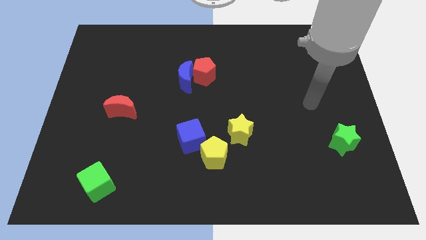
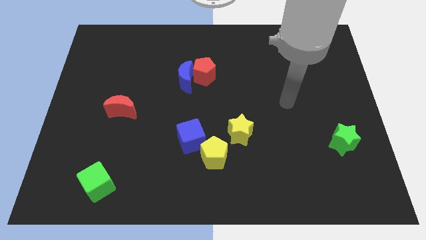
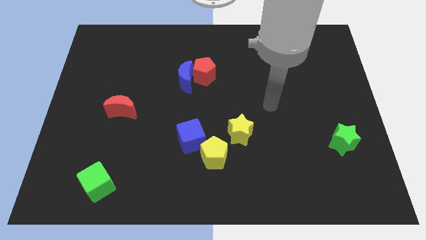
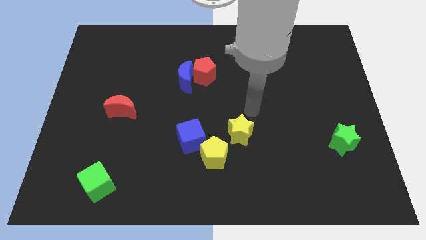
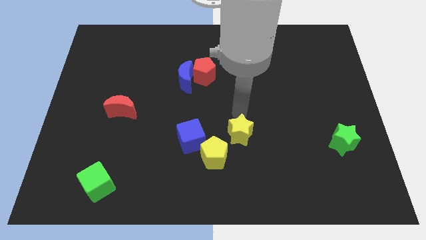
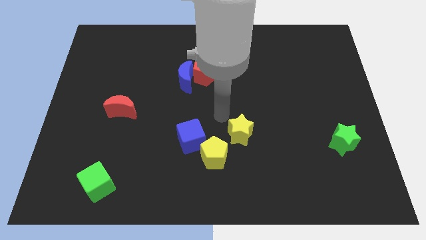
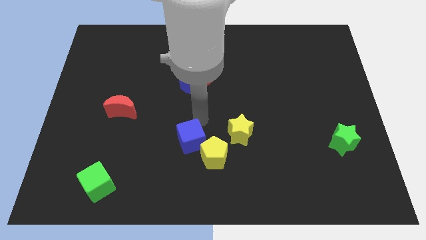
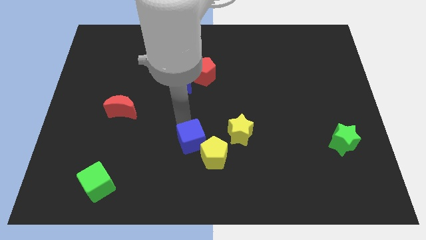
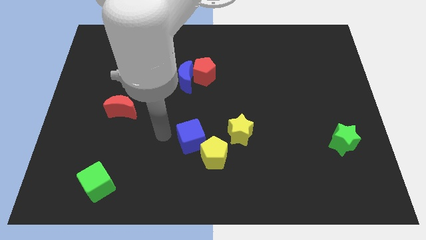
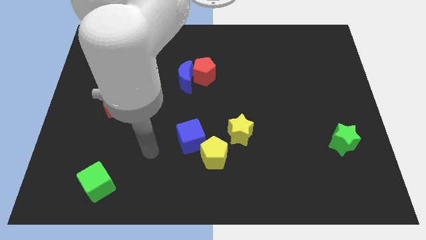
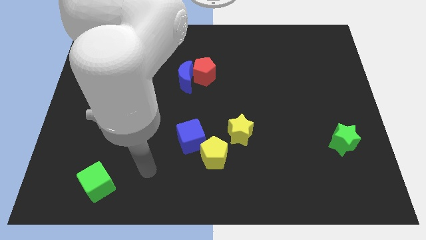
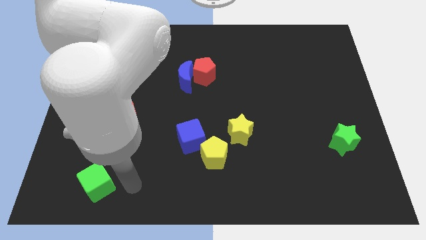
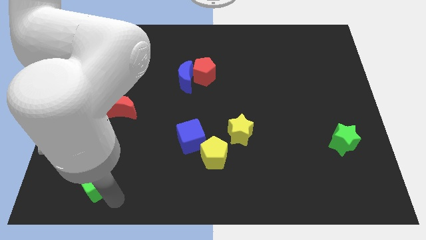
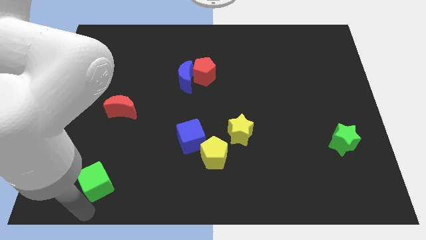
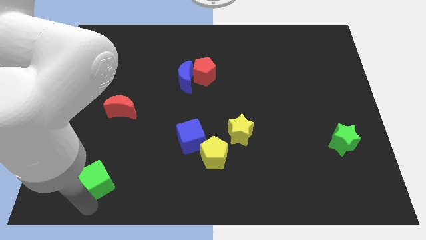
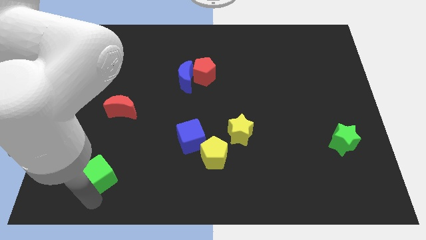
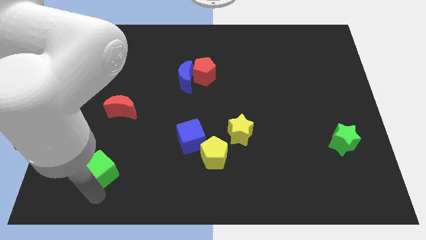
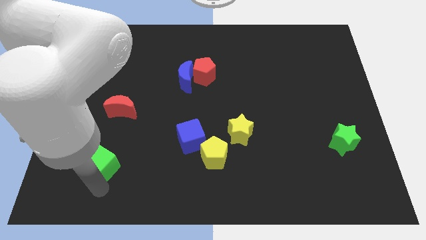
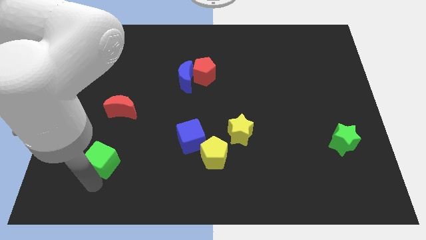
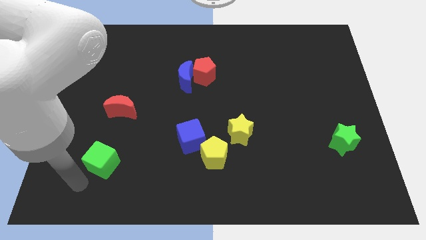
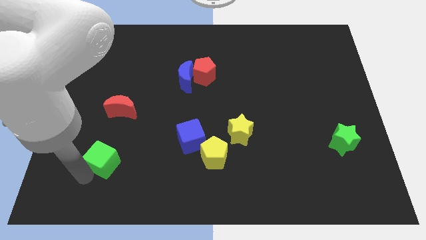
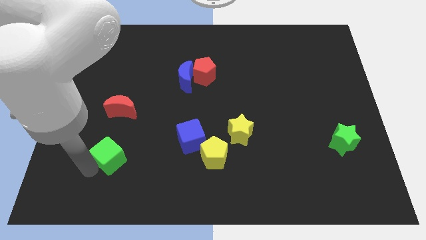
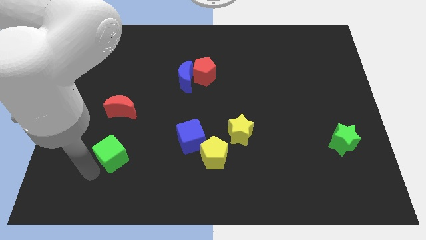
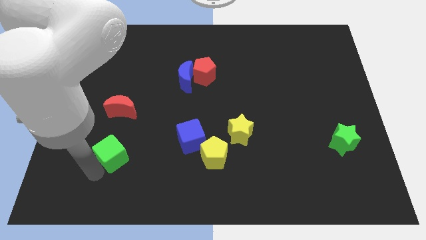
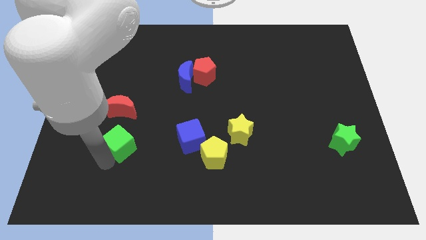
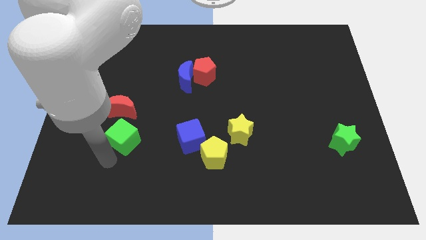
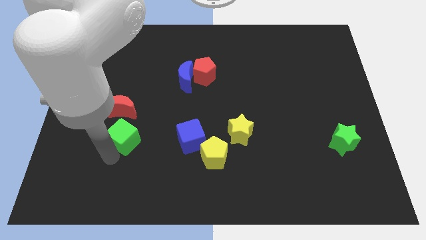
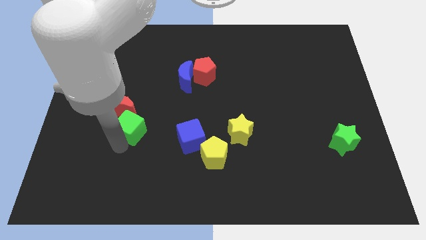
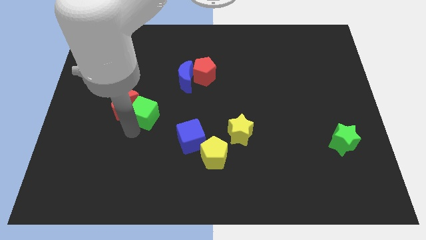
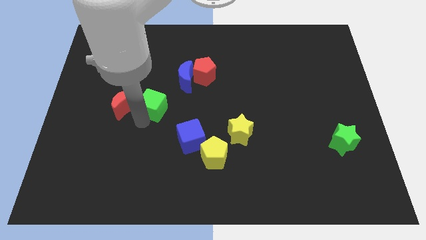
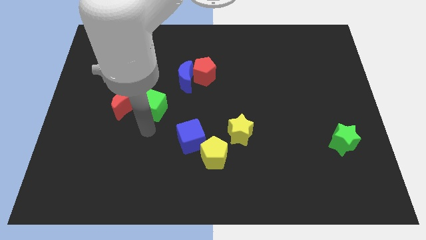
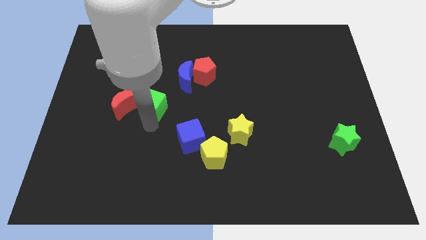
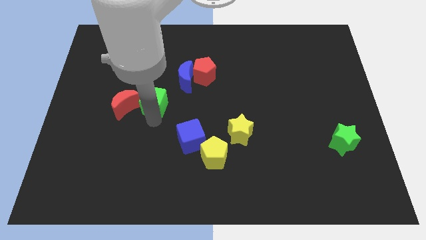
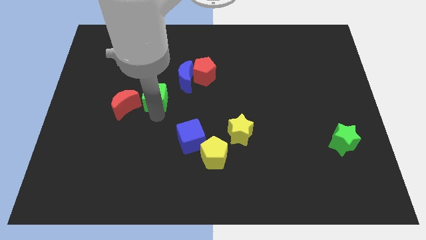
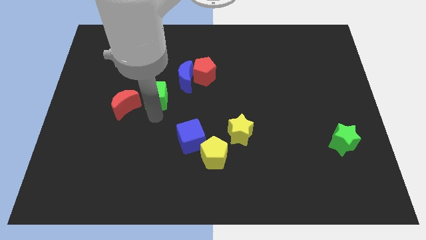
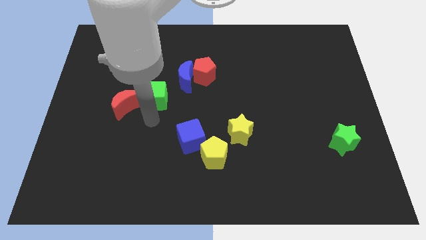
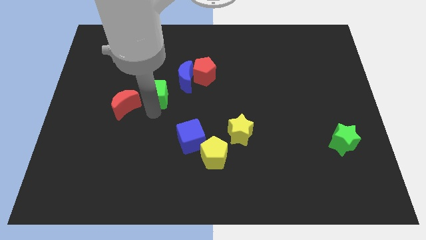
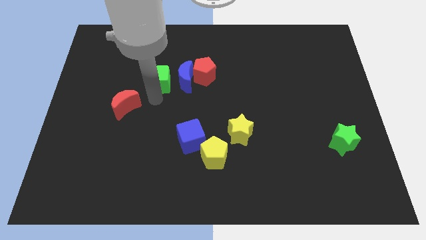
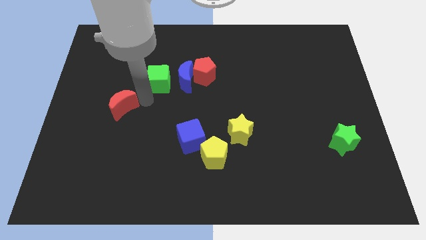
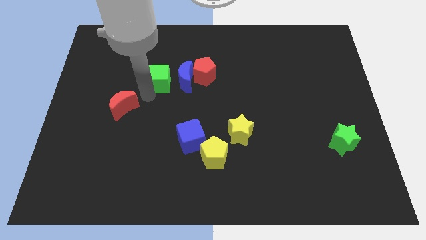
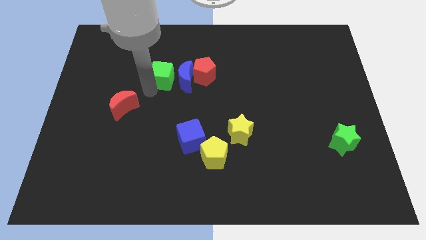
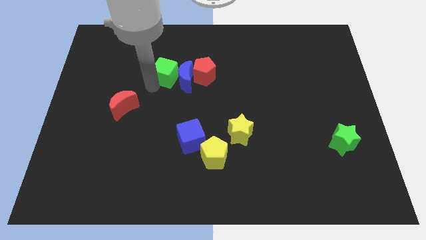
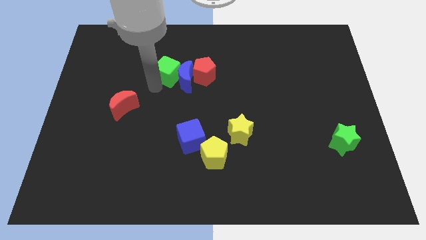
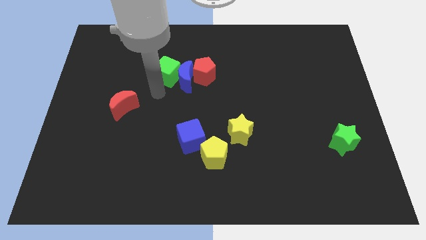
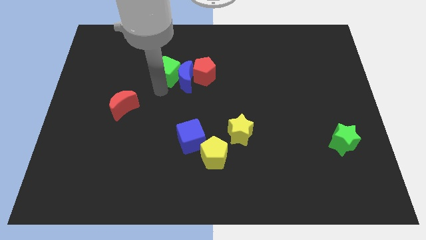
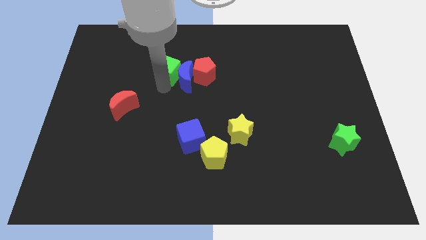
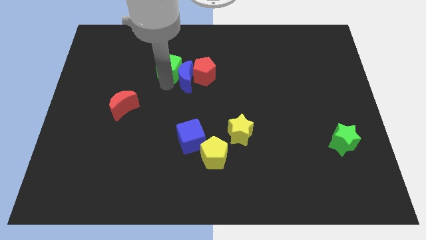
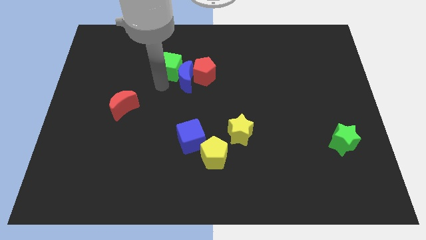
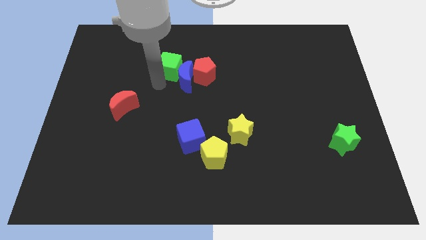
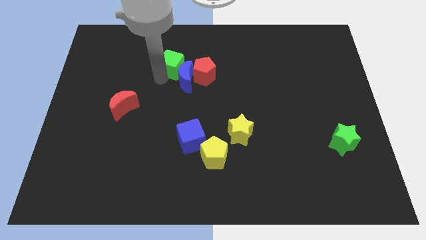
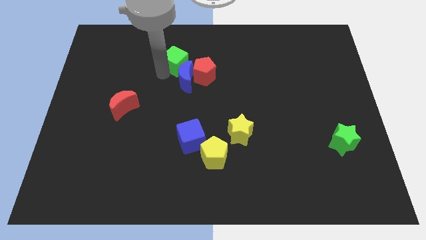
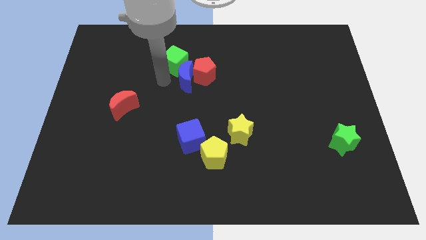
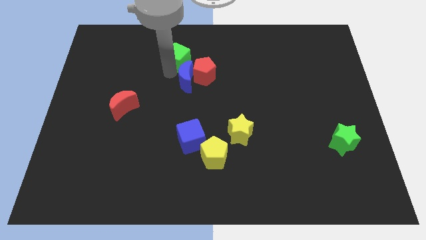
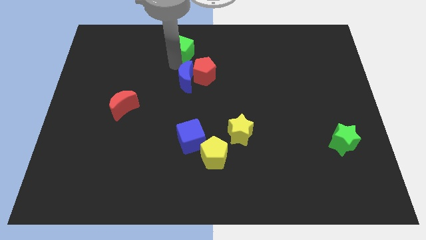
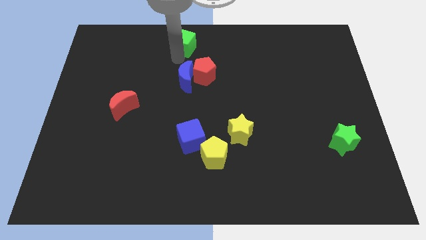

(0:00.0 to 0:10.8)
push the green cube to the top side
